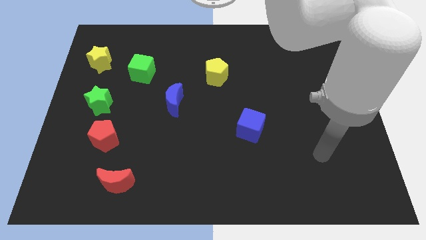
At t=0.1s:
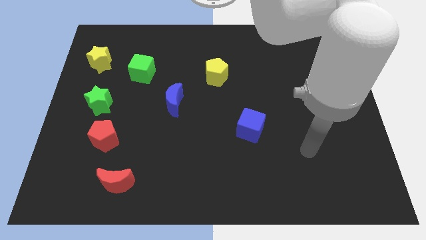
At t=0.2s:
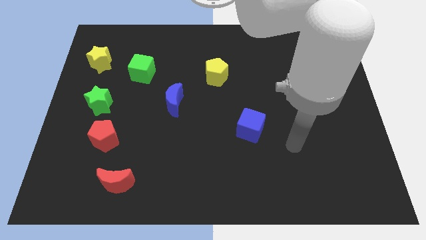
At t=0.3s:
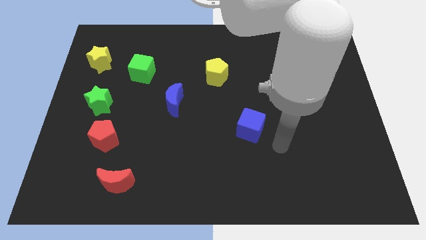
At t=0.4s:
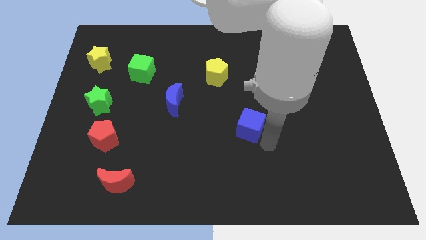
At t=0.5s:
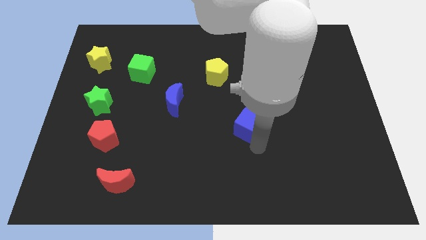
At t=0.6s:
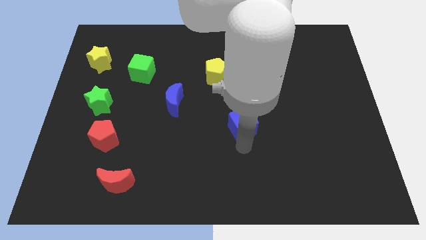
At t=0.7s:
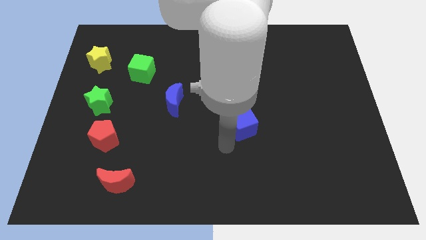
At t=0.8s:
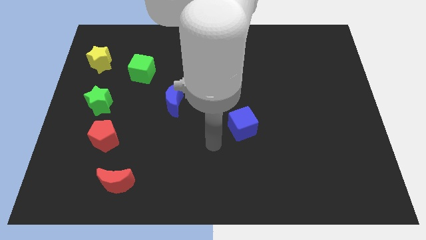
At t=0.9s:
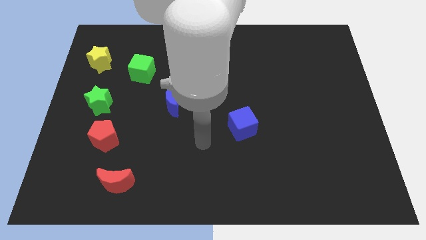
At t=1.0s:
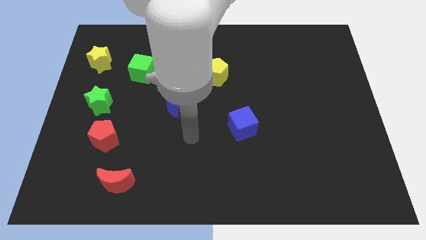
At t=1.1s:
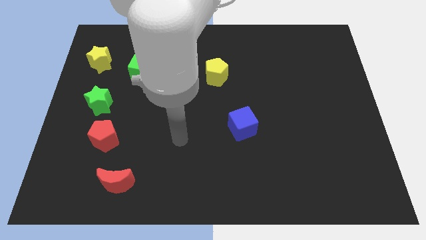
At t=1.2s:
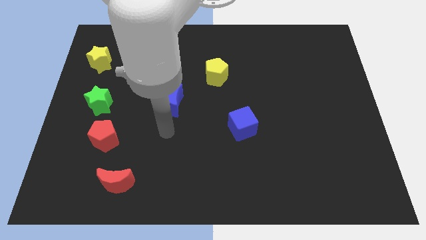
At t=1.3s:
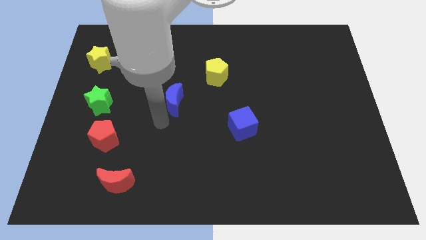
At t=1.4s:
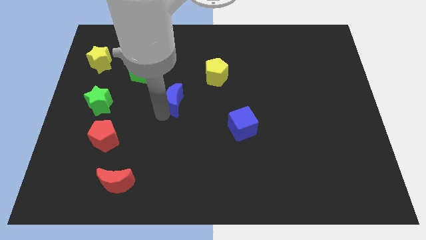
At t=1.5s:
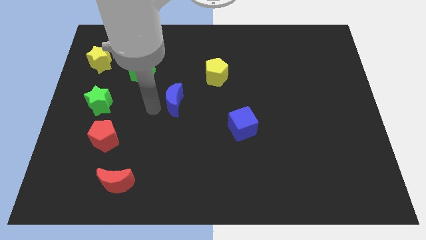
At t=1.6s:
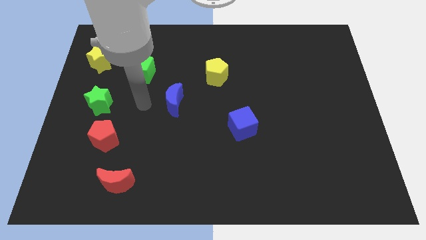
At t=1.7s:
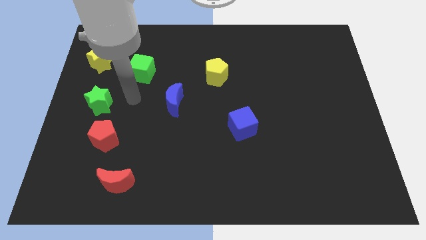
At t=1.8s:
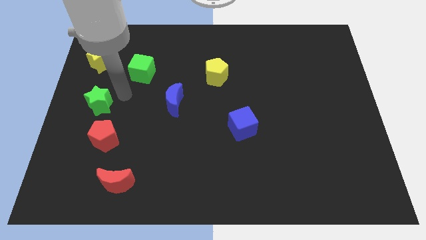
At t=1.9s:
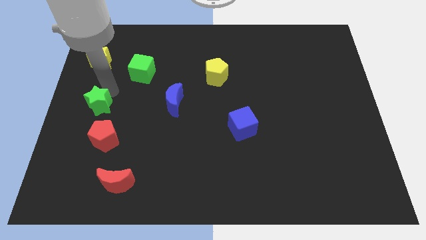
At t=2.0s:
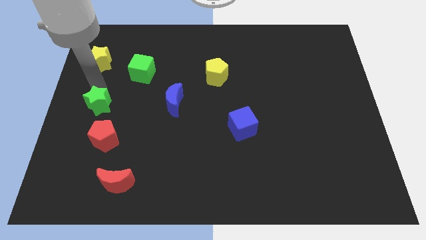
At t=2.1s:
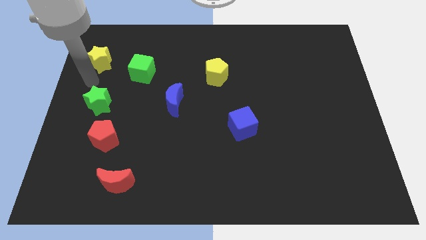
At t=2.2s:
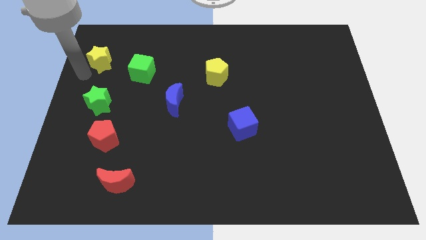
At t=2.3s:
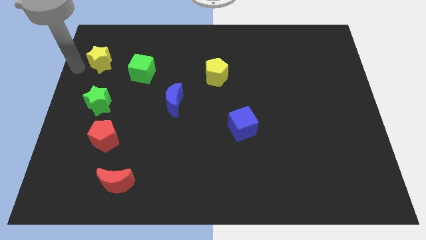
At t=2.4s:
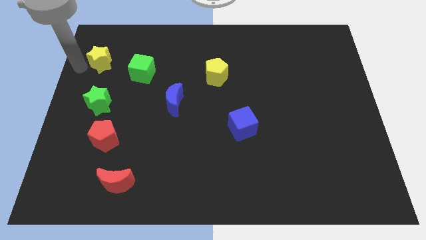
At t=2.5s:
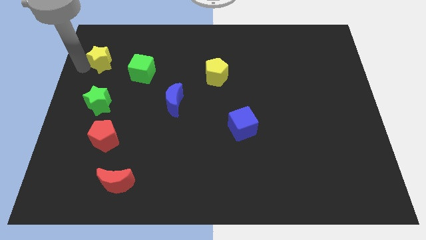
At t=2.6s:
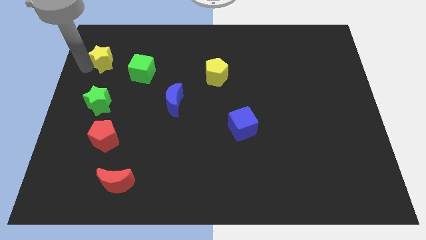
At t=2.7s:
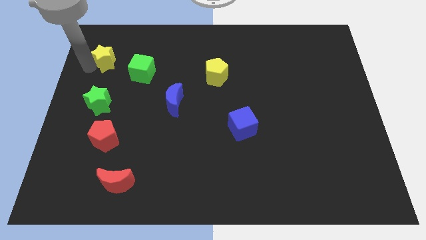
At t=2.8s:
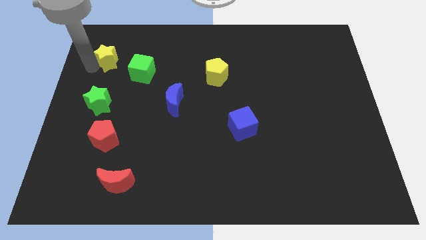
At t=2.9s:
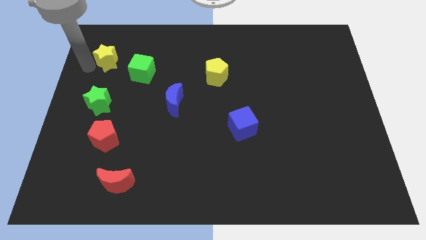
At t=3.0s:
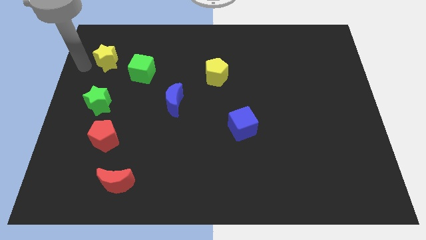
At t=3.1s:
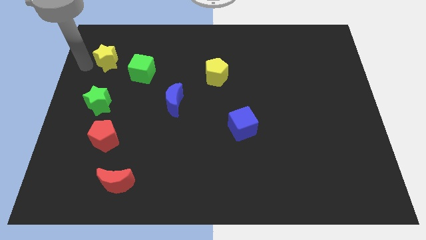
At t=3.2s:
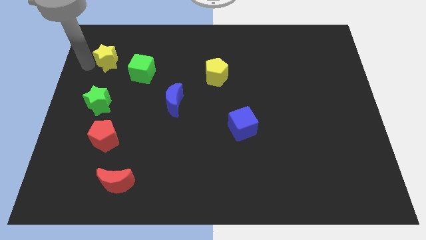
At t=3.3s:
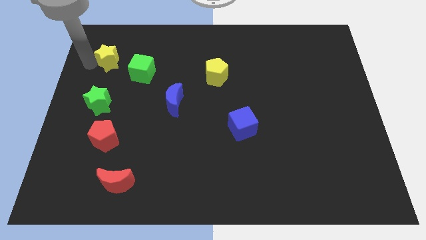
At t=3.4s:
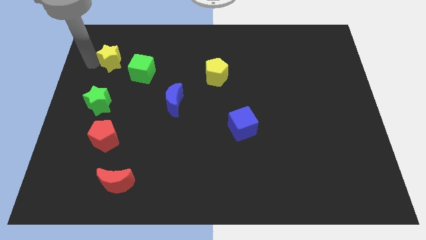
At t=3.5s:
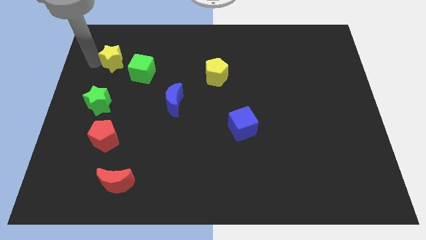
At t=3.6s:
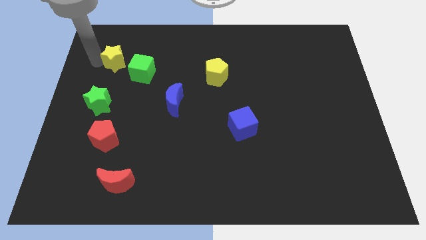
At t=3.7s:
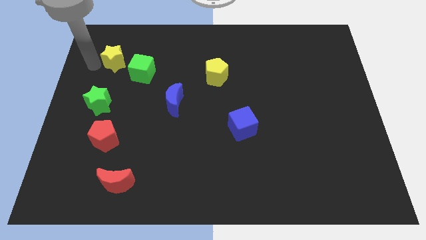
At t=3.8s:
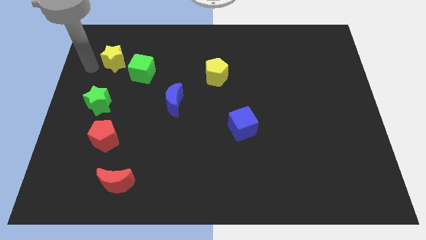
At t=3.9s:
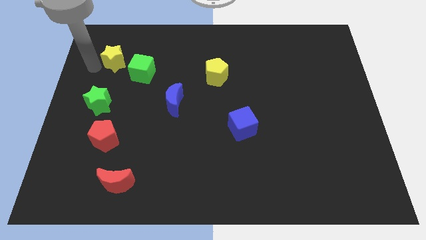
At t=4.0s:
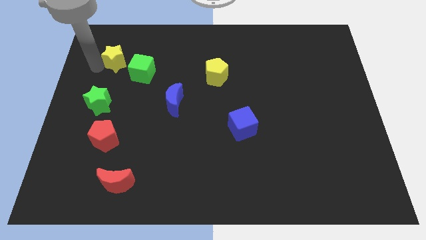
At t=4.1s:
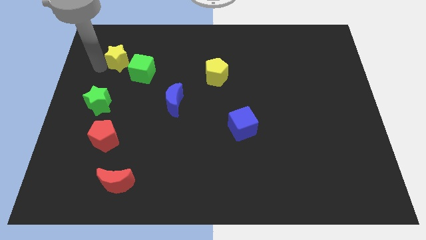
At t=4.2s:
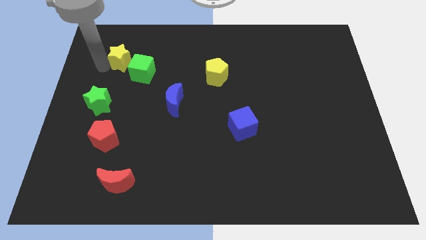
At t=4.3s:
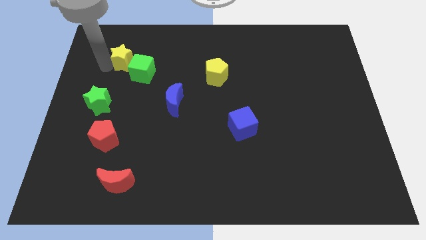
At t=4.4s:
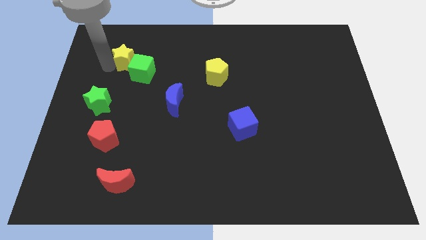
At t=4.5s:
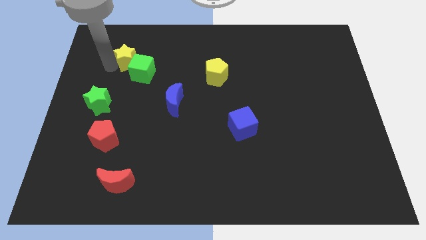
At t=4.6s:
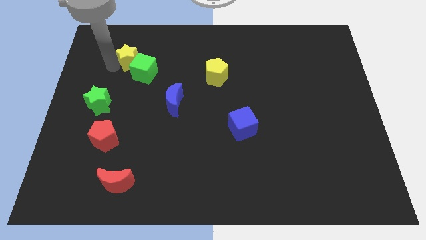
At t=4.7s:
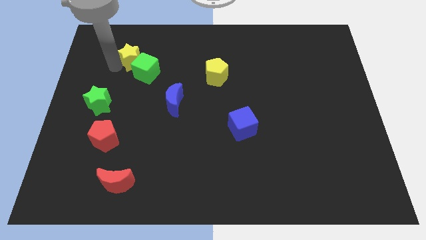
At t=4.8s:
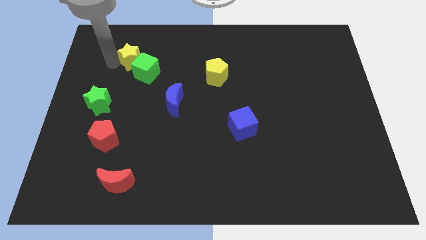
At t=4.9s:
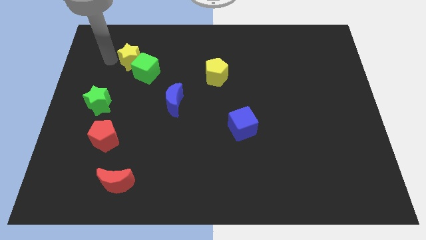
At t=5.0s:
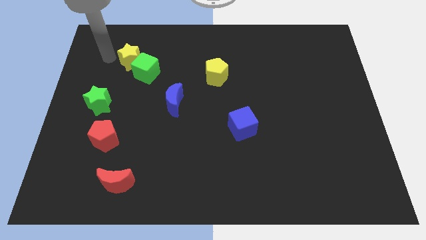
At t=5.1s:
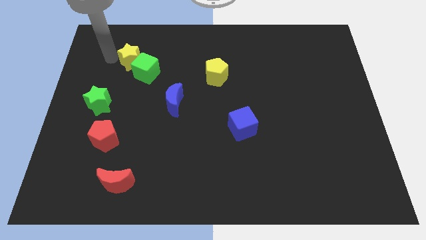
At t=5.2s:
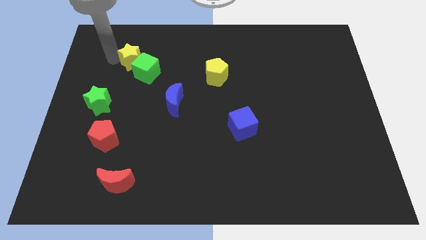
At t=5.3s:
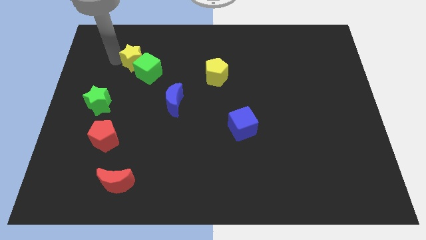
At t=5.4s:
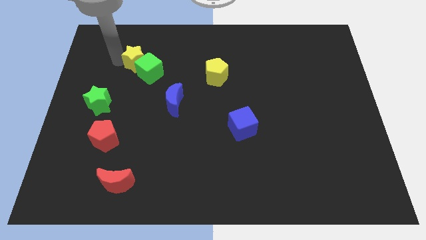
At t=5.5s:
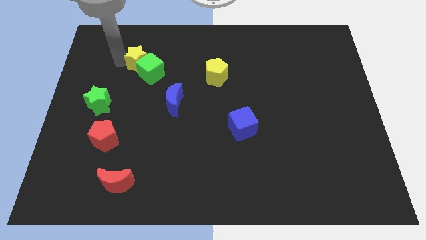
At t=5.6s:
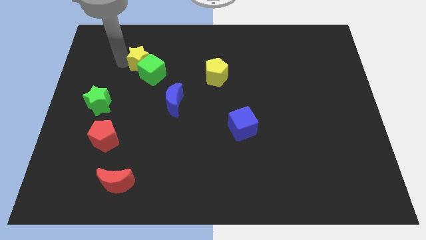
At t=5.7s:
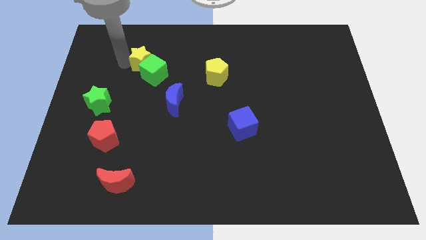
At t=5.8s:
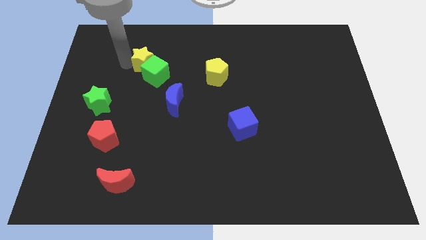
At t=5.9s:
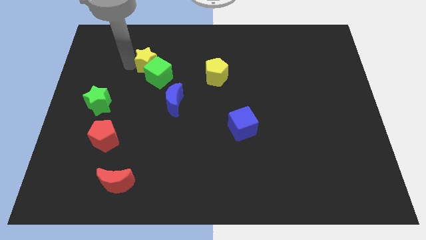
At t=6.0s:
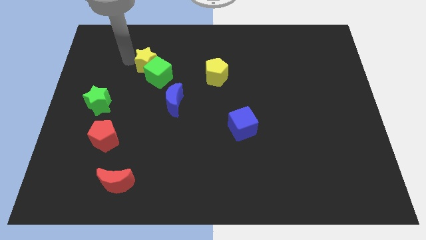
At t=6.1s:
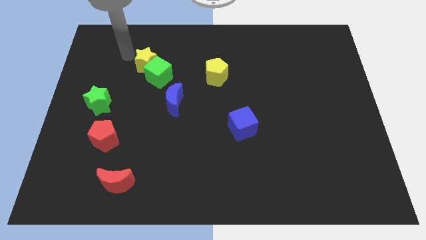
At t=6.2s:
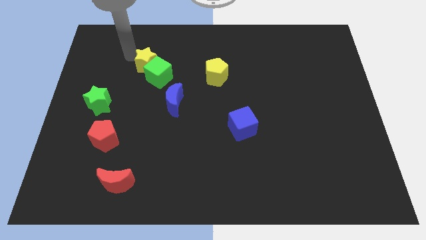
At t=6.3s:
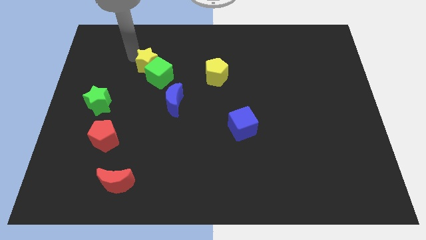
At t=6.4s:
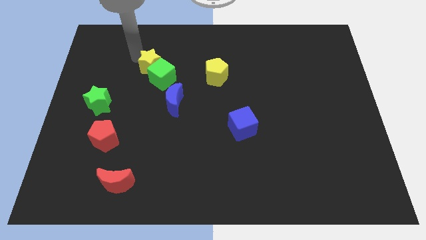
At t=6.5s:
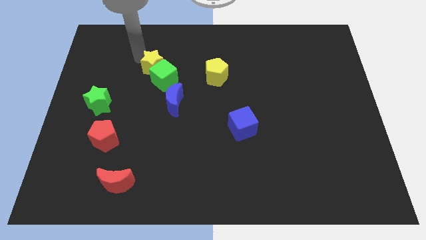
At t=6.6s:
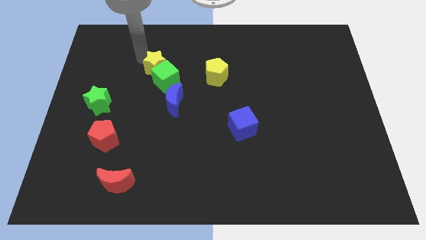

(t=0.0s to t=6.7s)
slide the yellow star to the left of the yellow pentagon

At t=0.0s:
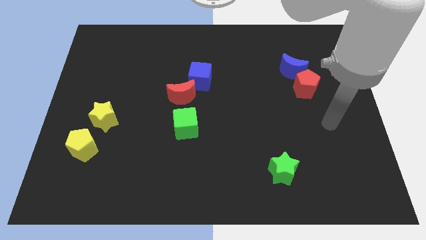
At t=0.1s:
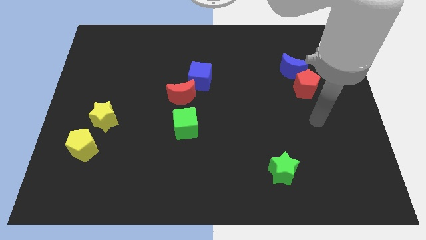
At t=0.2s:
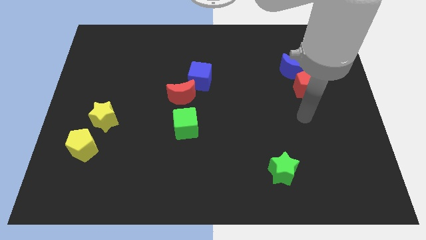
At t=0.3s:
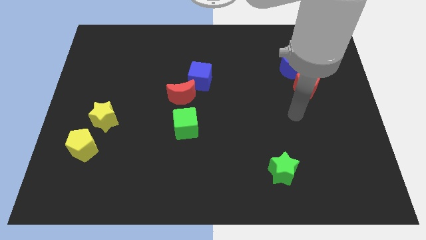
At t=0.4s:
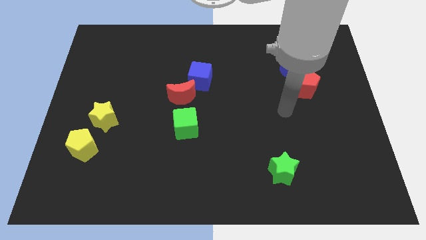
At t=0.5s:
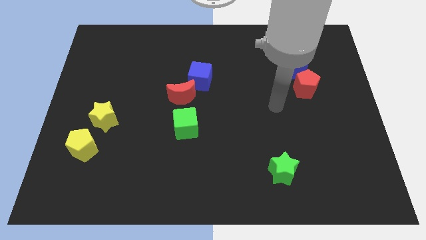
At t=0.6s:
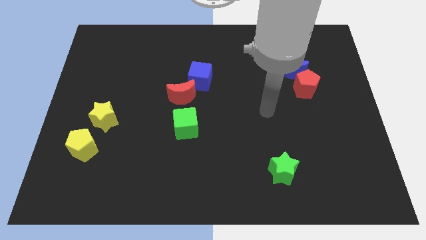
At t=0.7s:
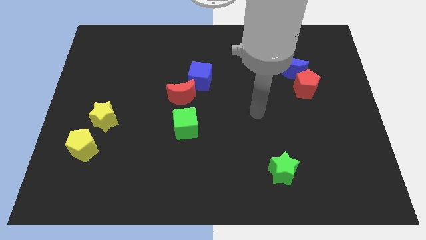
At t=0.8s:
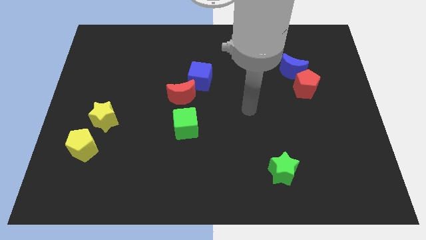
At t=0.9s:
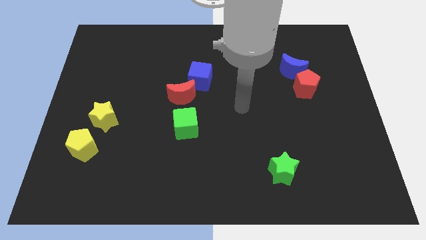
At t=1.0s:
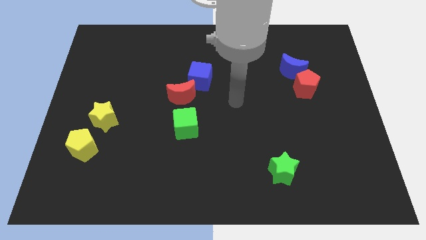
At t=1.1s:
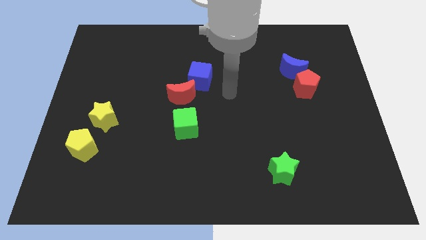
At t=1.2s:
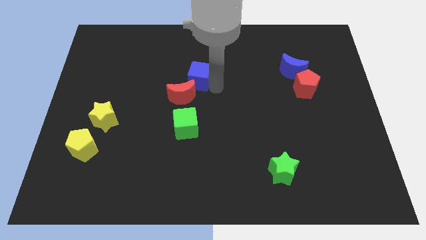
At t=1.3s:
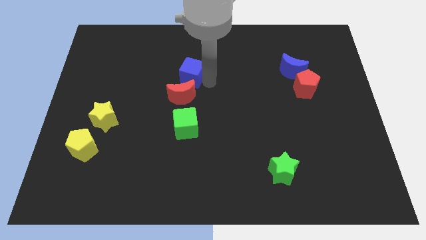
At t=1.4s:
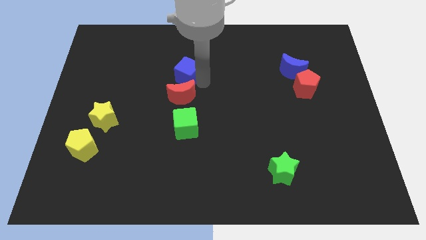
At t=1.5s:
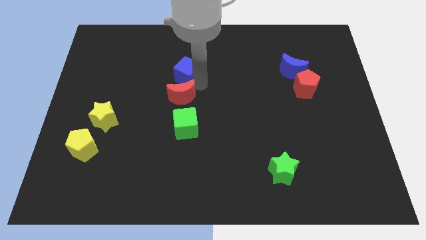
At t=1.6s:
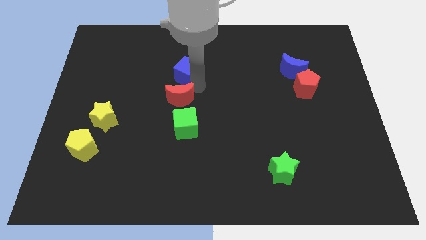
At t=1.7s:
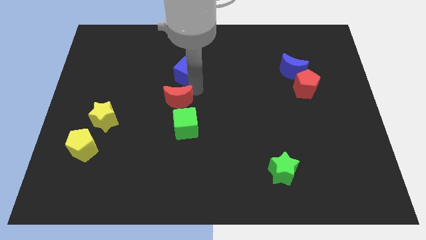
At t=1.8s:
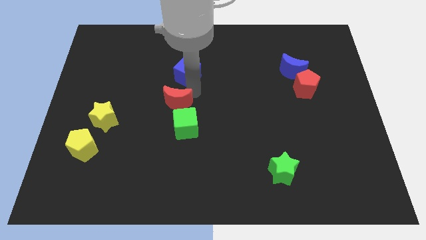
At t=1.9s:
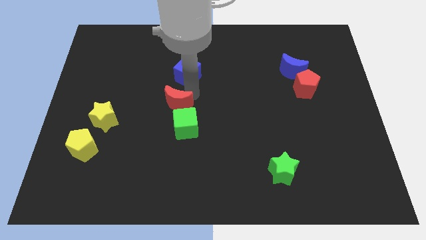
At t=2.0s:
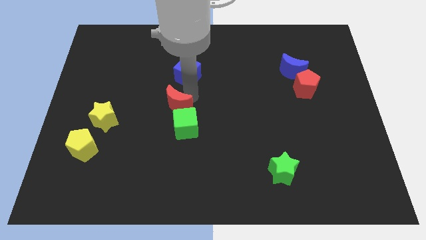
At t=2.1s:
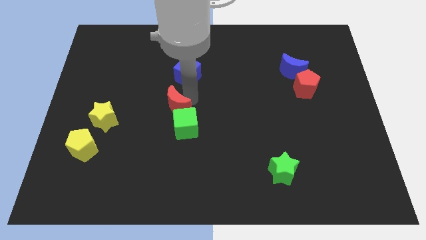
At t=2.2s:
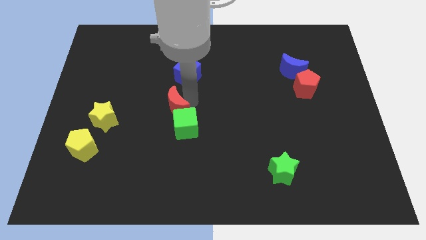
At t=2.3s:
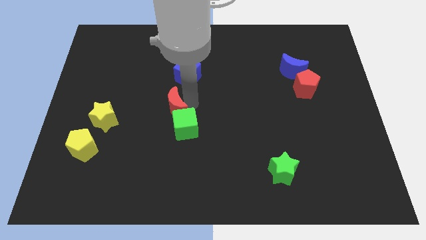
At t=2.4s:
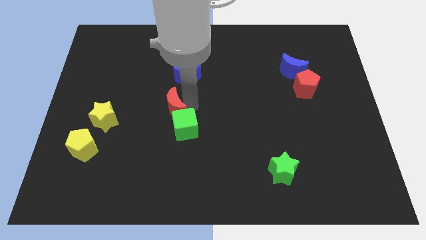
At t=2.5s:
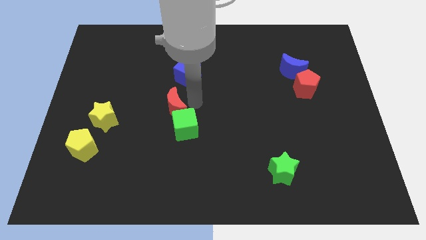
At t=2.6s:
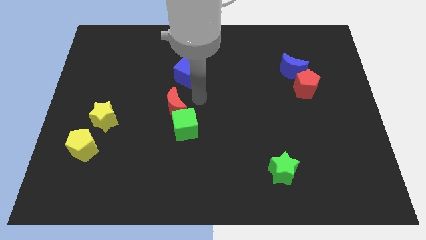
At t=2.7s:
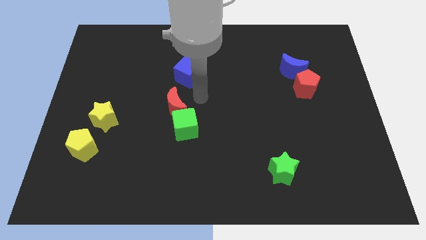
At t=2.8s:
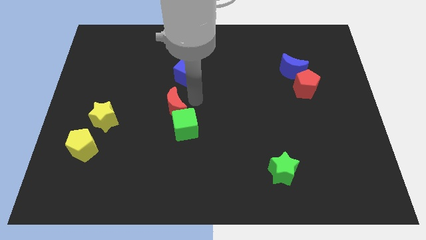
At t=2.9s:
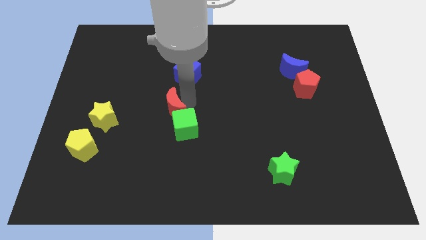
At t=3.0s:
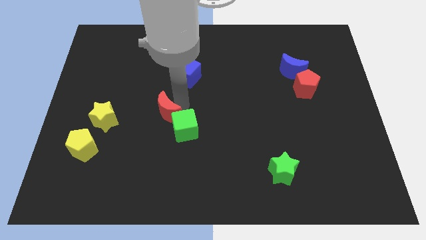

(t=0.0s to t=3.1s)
slide the red moon just right of the yellow star
